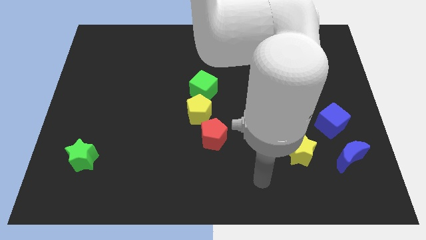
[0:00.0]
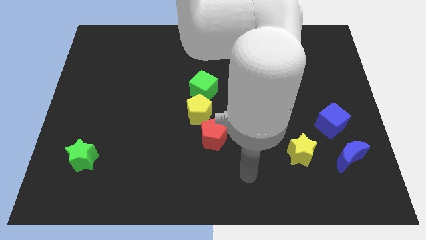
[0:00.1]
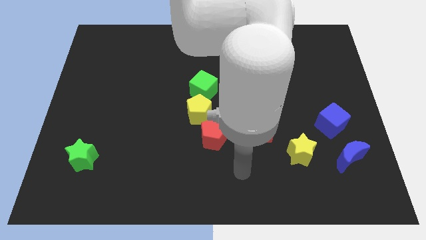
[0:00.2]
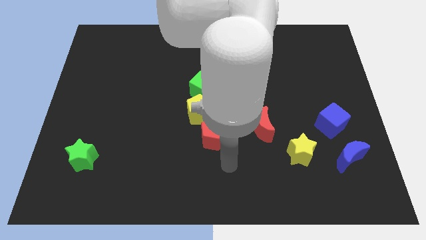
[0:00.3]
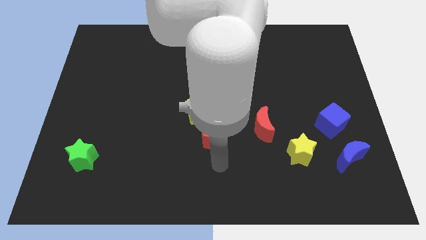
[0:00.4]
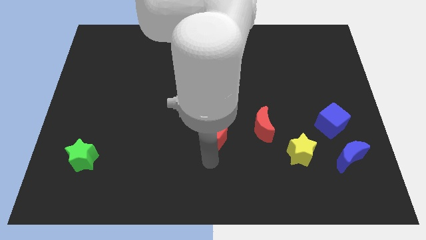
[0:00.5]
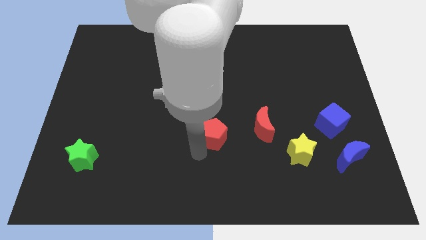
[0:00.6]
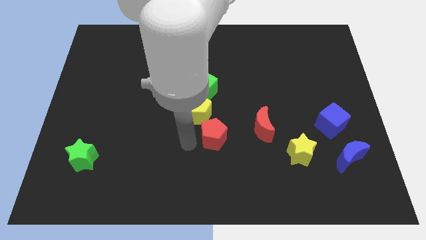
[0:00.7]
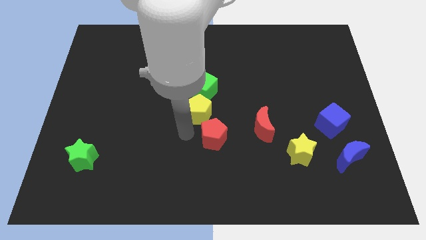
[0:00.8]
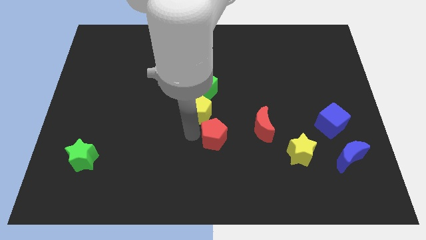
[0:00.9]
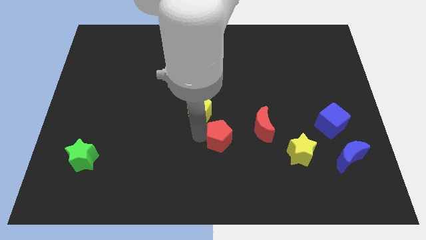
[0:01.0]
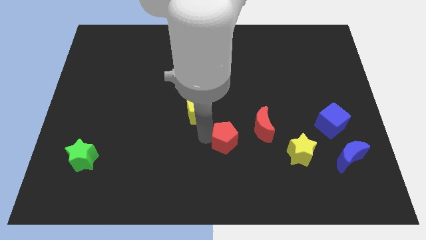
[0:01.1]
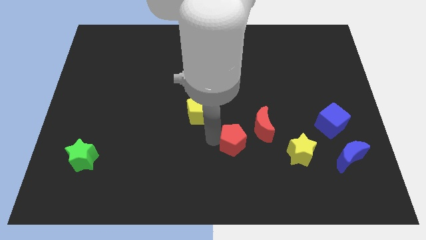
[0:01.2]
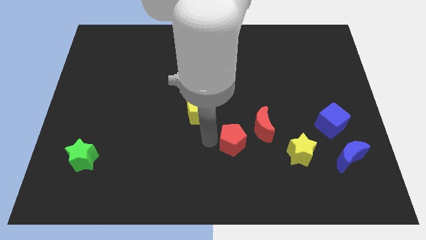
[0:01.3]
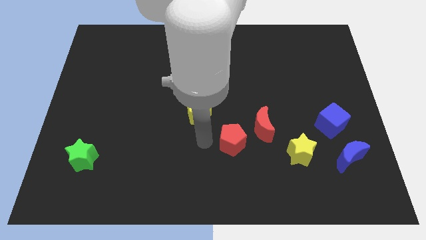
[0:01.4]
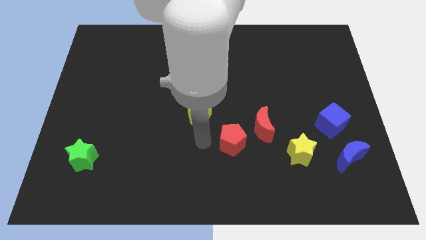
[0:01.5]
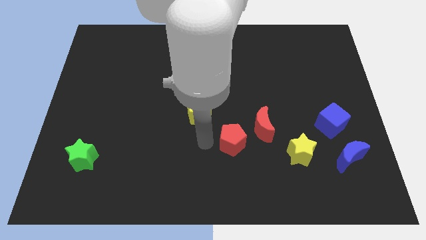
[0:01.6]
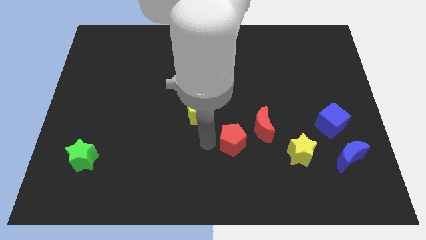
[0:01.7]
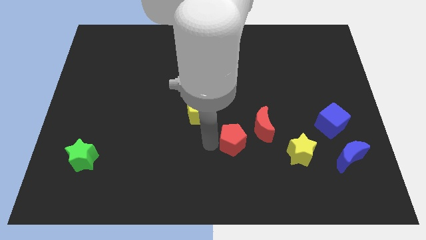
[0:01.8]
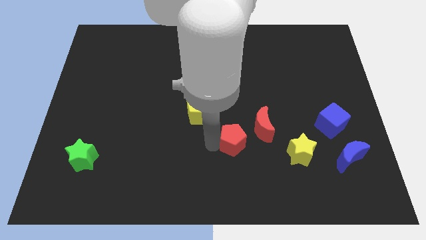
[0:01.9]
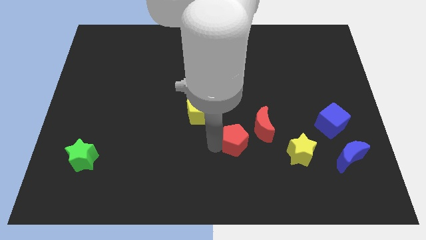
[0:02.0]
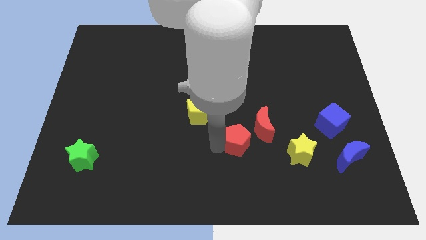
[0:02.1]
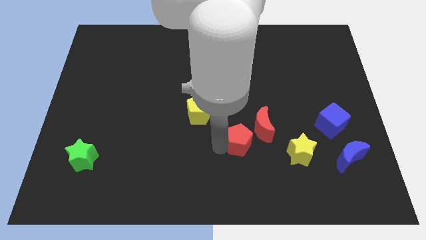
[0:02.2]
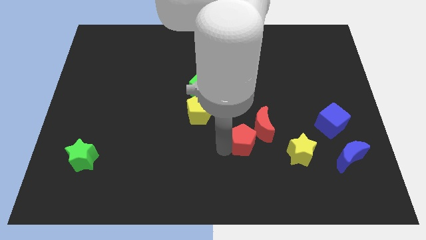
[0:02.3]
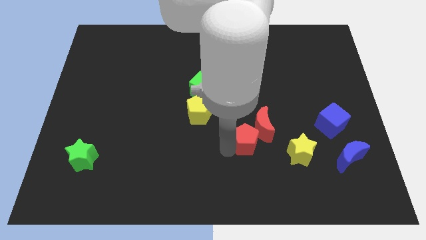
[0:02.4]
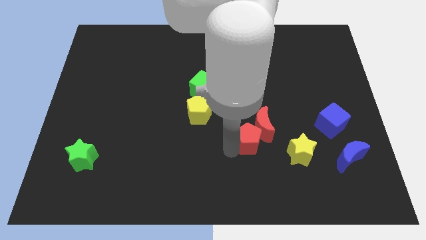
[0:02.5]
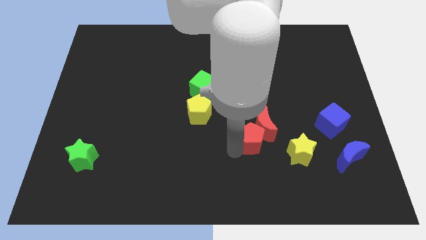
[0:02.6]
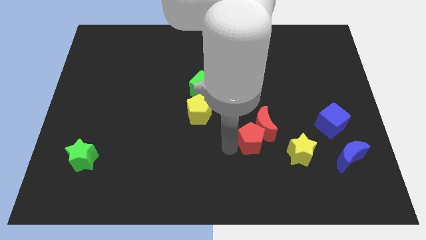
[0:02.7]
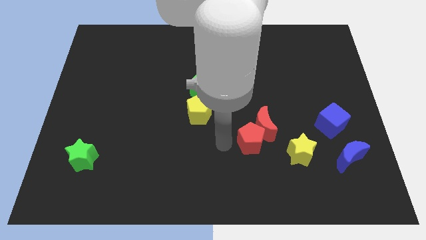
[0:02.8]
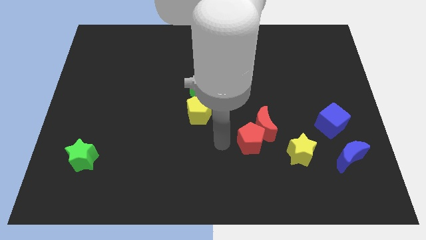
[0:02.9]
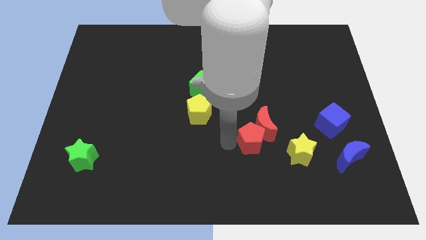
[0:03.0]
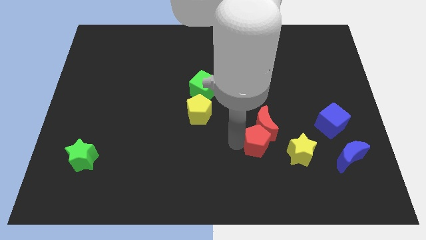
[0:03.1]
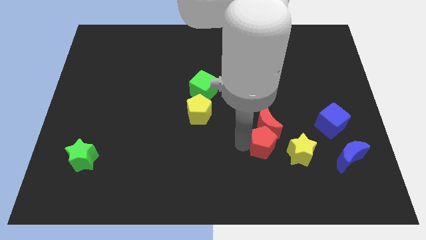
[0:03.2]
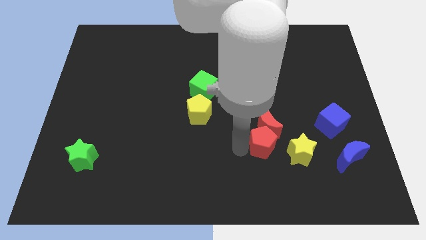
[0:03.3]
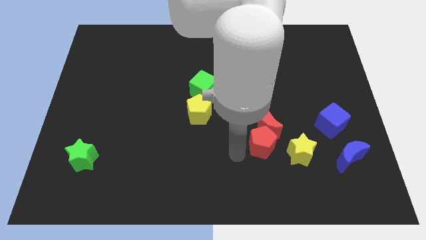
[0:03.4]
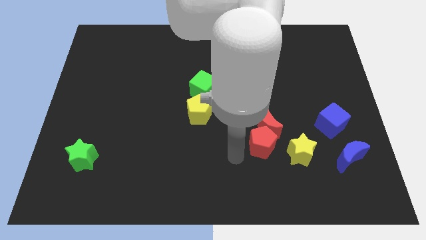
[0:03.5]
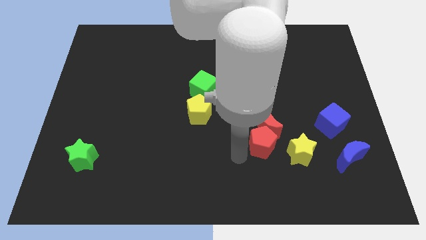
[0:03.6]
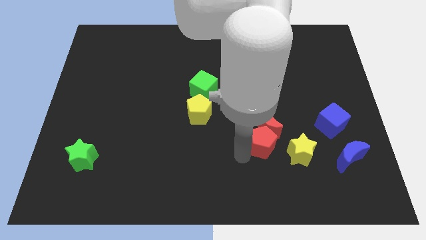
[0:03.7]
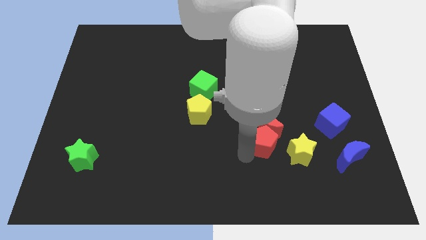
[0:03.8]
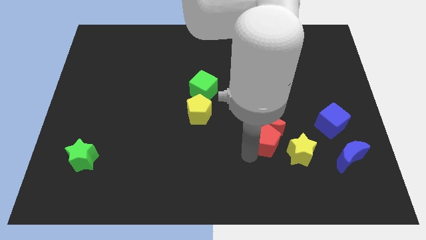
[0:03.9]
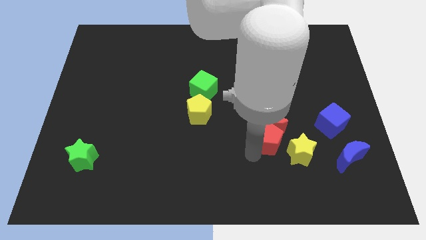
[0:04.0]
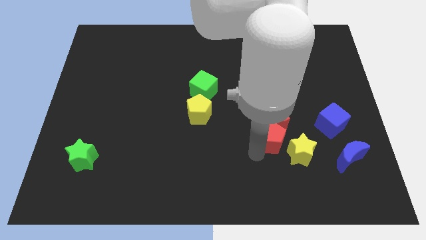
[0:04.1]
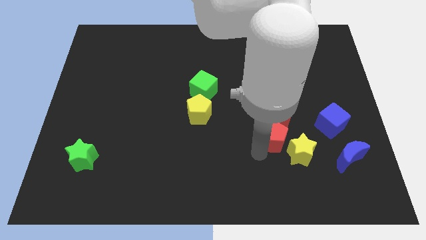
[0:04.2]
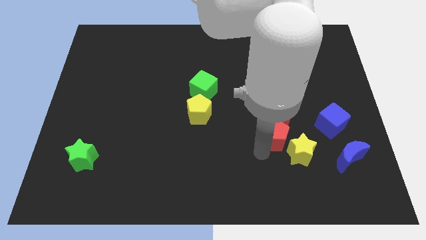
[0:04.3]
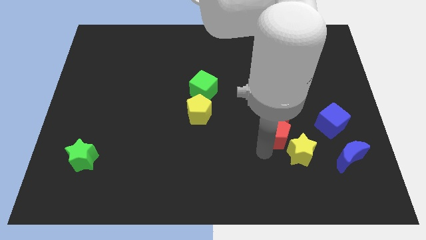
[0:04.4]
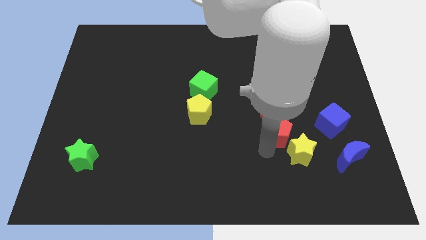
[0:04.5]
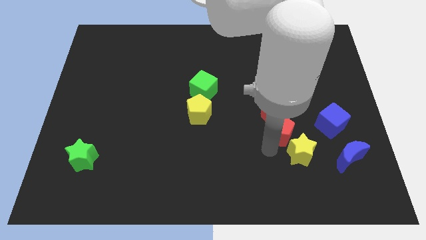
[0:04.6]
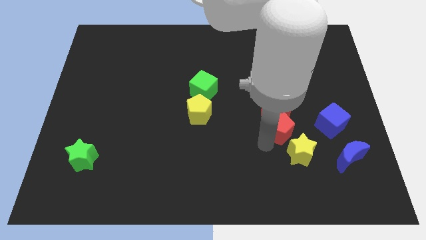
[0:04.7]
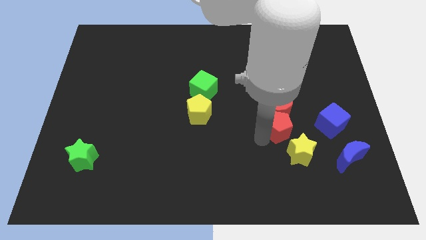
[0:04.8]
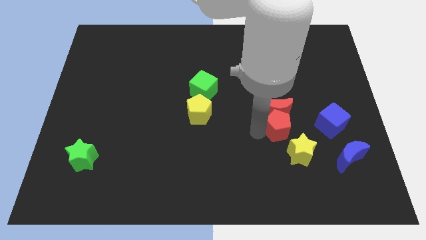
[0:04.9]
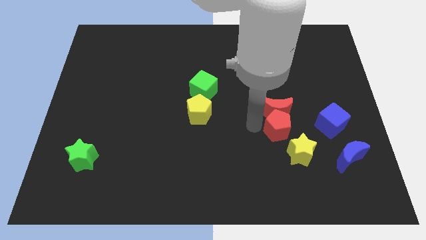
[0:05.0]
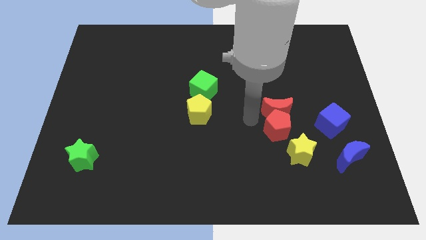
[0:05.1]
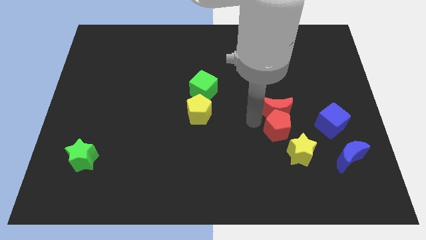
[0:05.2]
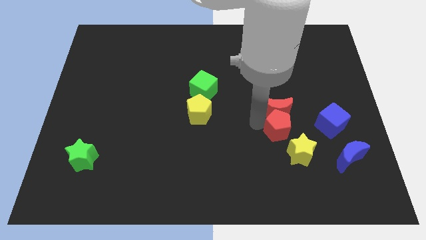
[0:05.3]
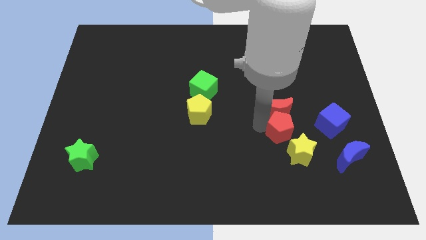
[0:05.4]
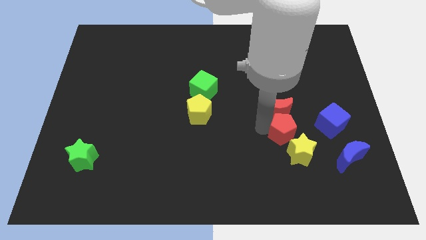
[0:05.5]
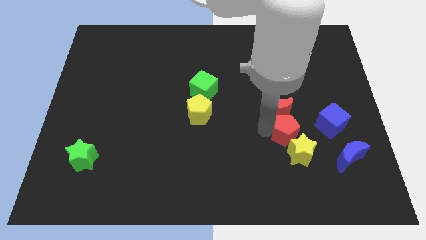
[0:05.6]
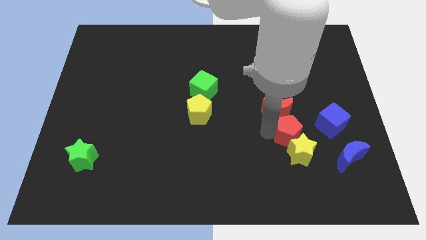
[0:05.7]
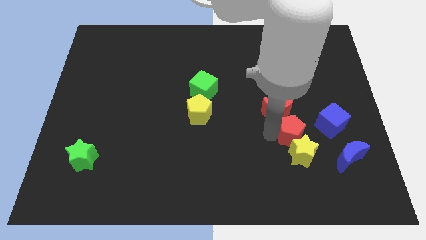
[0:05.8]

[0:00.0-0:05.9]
push the red pentagon diagonally down and to the left of the blue cube

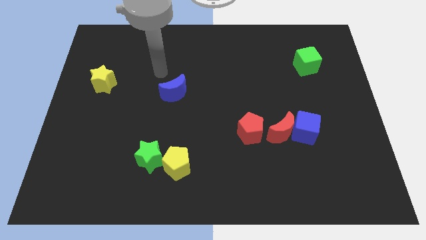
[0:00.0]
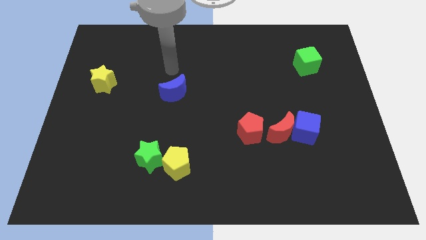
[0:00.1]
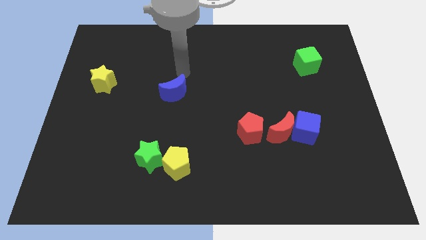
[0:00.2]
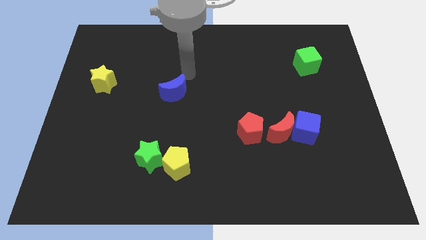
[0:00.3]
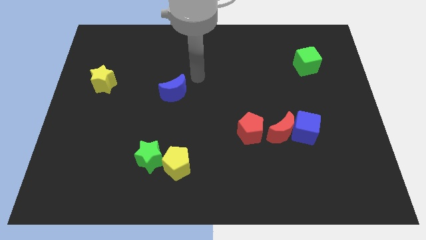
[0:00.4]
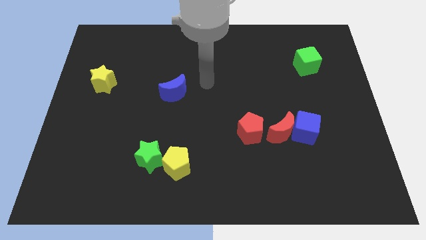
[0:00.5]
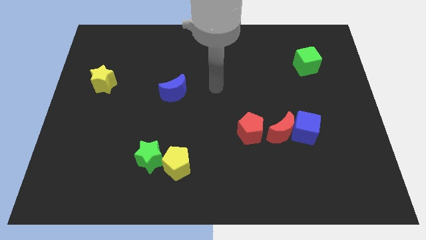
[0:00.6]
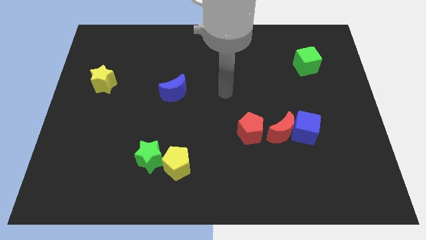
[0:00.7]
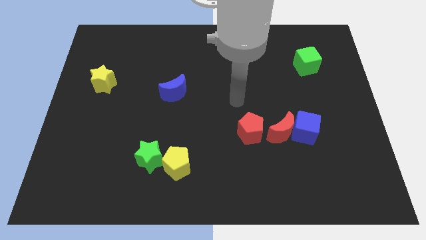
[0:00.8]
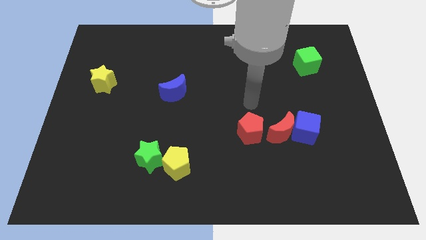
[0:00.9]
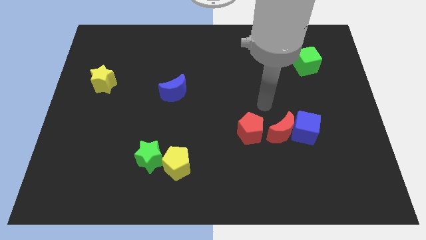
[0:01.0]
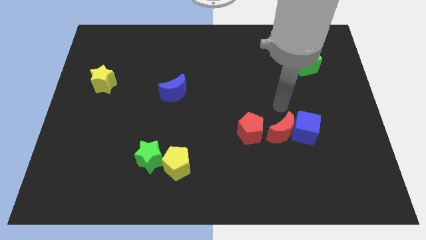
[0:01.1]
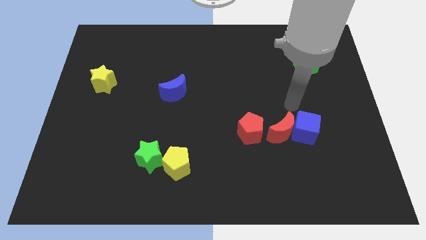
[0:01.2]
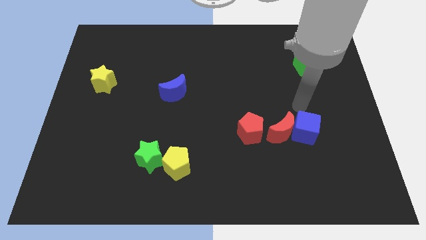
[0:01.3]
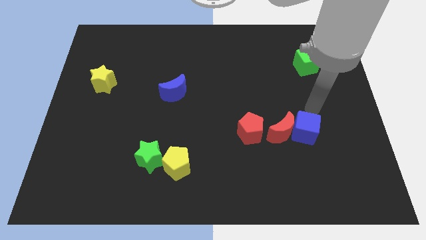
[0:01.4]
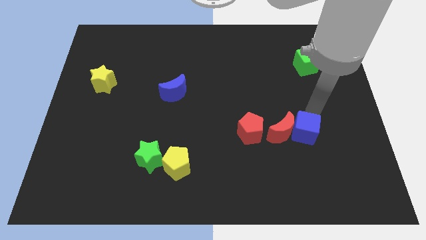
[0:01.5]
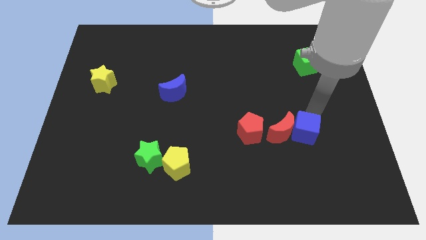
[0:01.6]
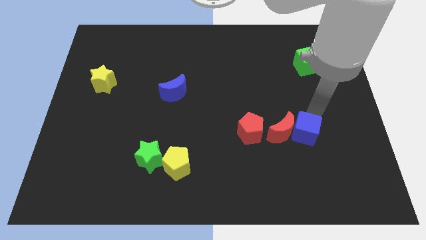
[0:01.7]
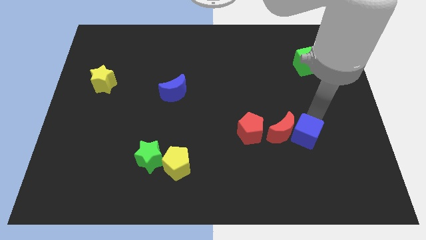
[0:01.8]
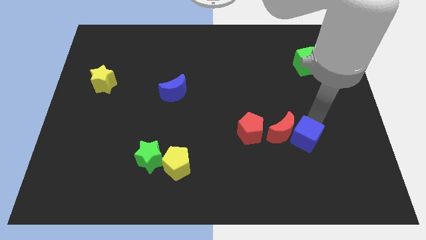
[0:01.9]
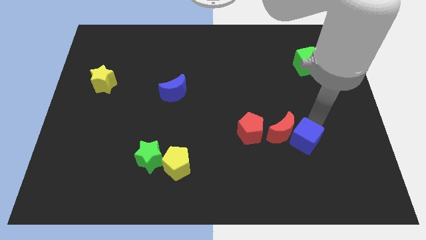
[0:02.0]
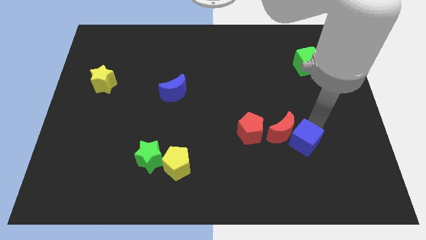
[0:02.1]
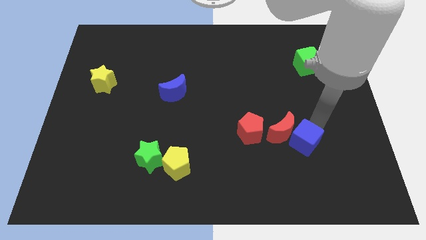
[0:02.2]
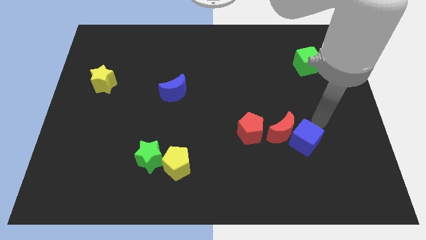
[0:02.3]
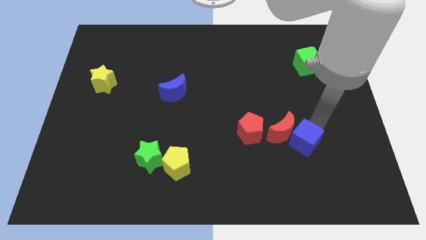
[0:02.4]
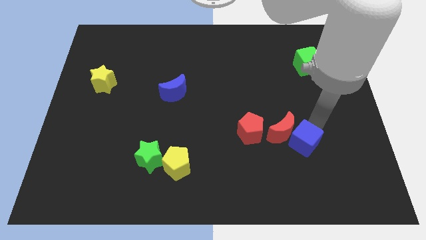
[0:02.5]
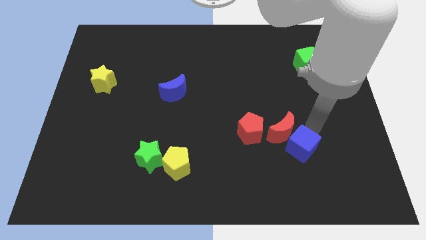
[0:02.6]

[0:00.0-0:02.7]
push the blue cube below the red moon
